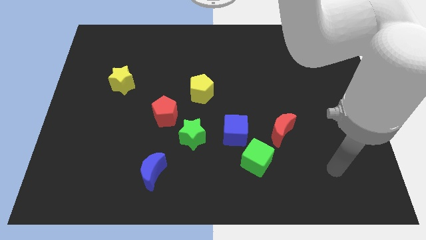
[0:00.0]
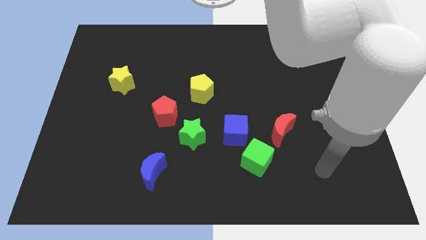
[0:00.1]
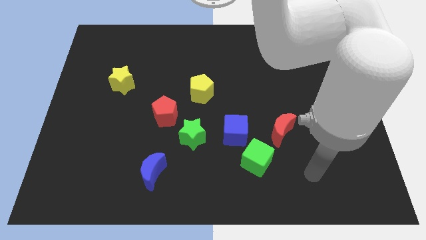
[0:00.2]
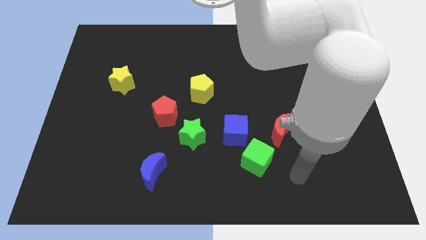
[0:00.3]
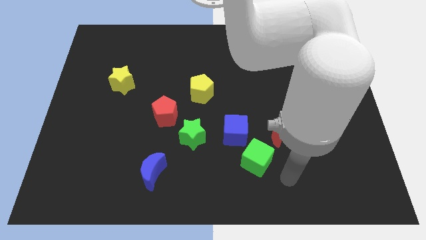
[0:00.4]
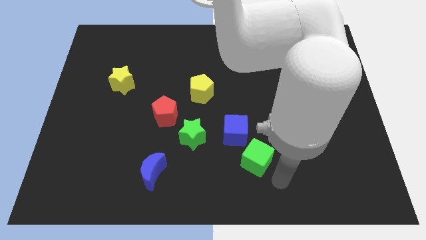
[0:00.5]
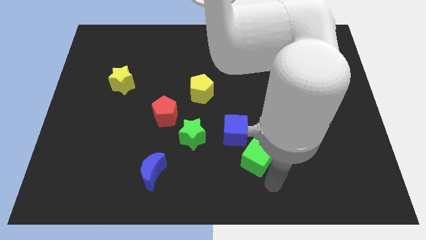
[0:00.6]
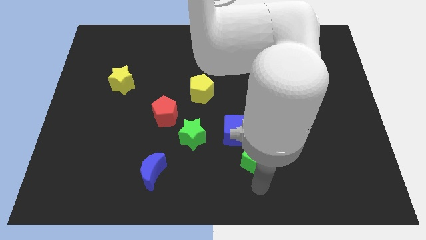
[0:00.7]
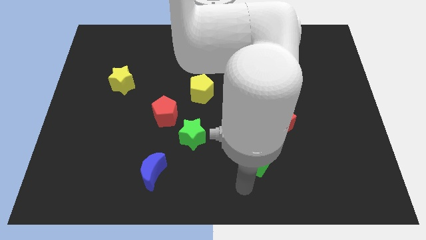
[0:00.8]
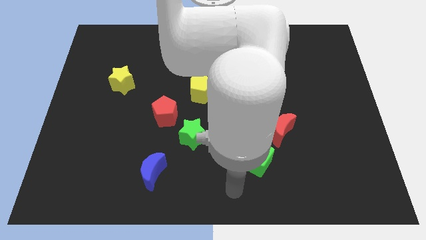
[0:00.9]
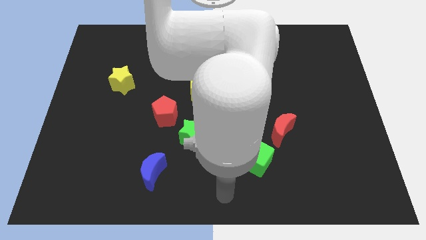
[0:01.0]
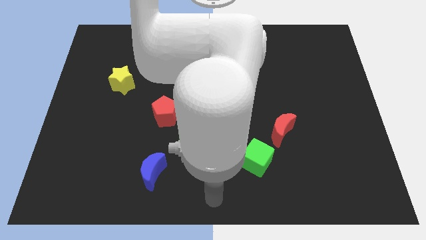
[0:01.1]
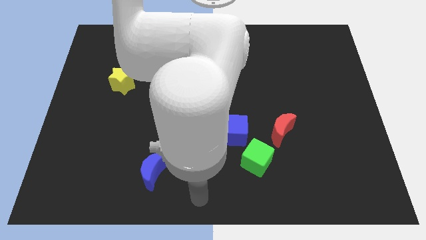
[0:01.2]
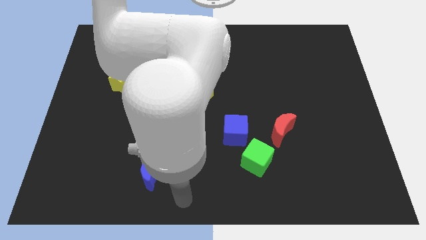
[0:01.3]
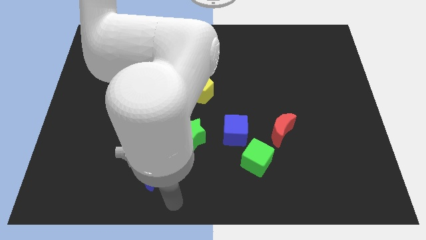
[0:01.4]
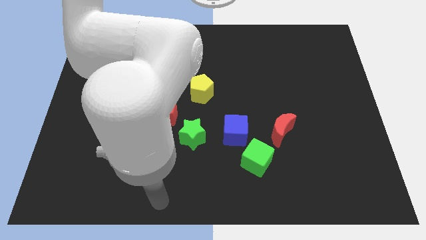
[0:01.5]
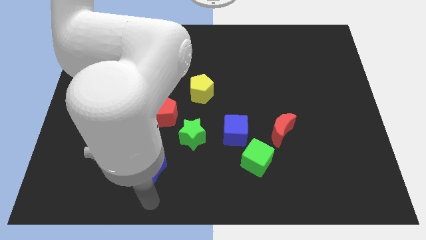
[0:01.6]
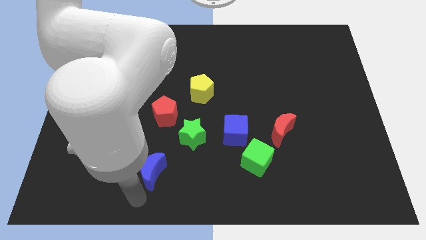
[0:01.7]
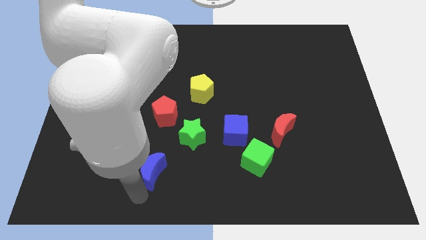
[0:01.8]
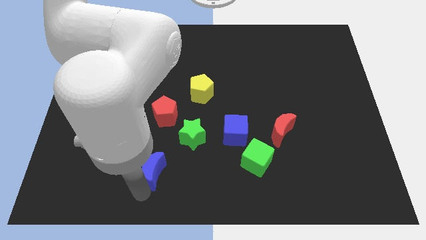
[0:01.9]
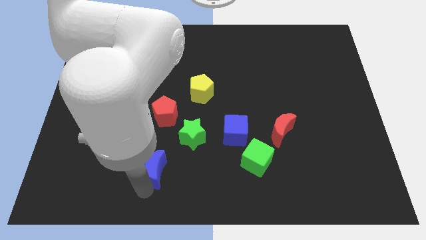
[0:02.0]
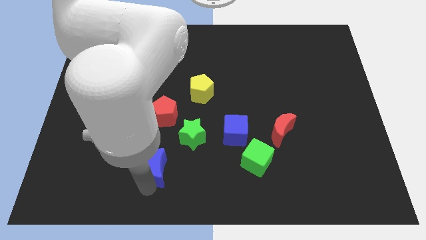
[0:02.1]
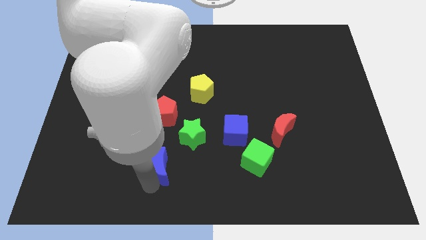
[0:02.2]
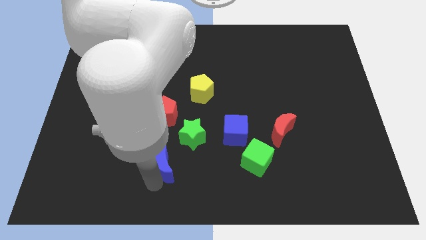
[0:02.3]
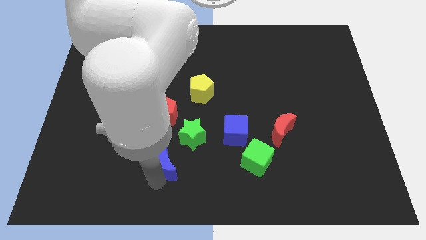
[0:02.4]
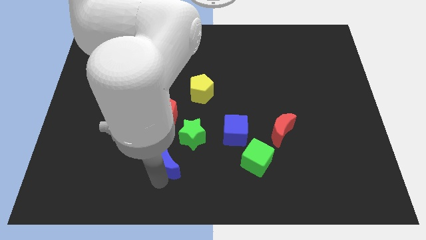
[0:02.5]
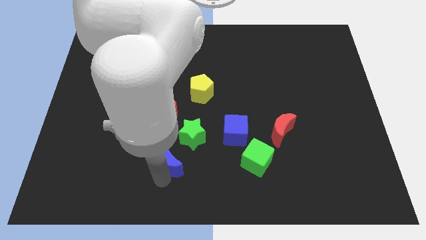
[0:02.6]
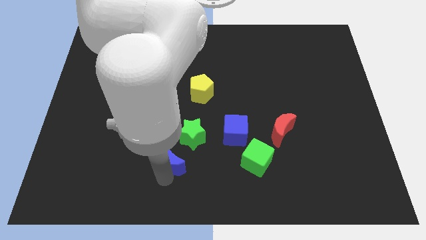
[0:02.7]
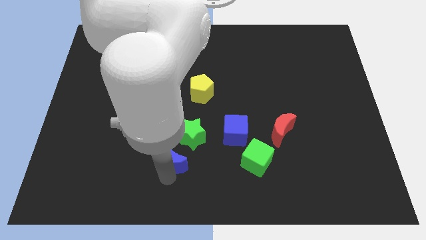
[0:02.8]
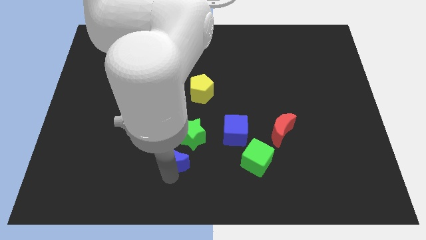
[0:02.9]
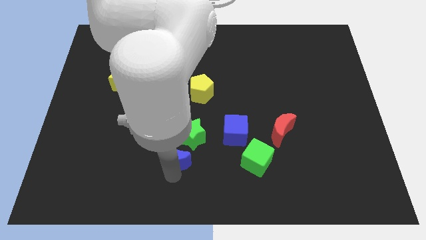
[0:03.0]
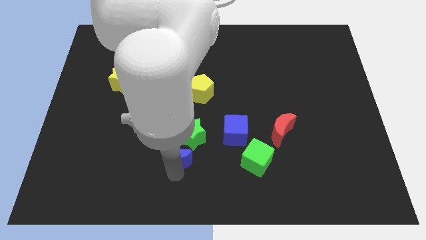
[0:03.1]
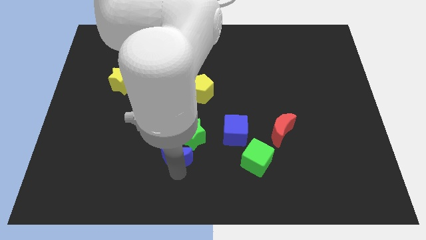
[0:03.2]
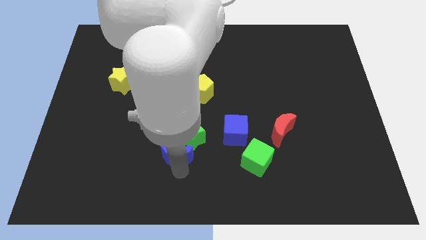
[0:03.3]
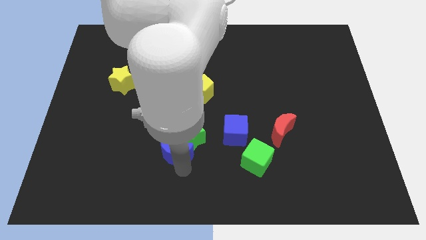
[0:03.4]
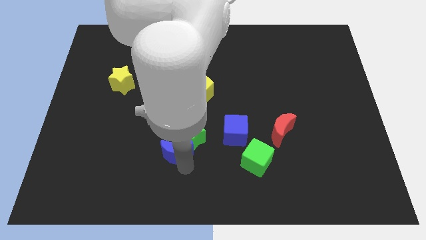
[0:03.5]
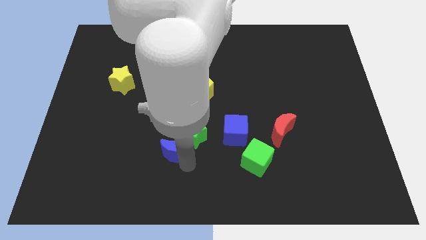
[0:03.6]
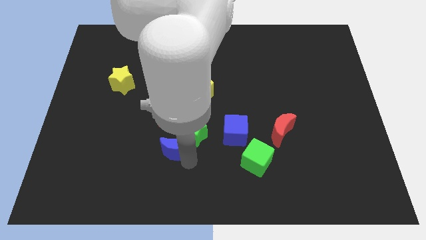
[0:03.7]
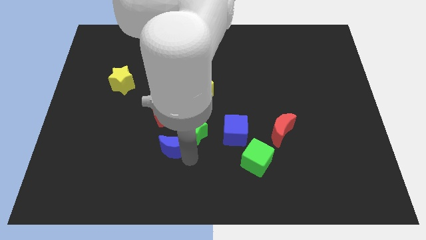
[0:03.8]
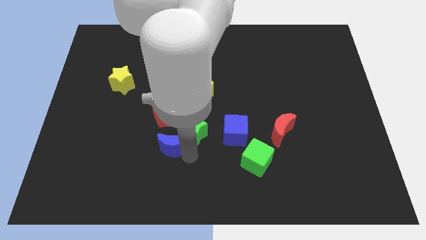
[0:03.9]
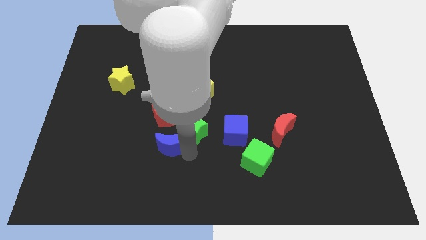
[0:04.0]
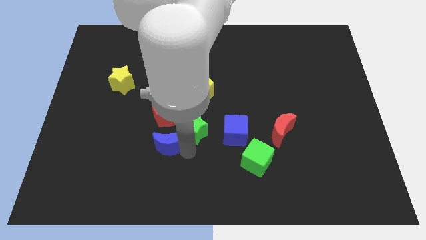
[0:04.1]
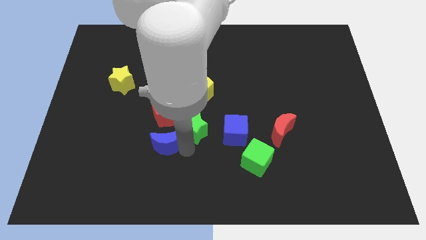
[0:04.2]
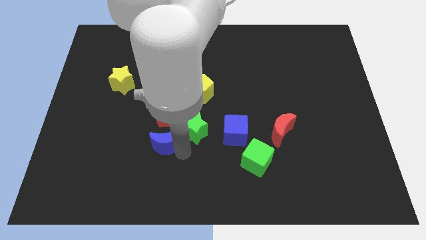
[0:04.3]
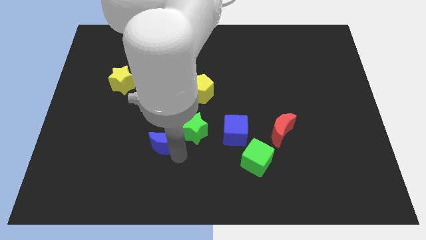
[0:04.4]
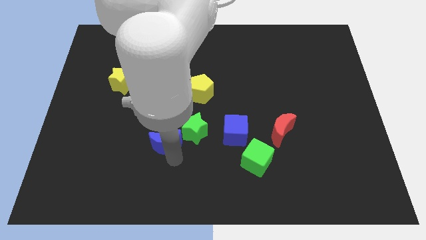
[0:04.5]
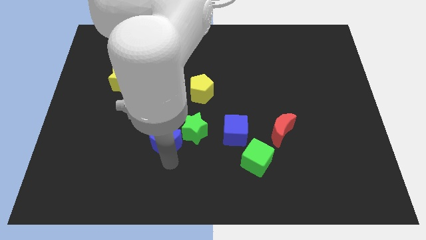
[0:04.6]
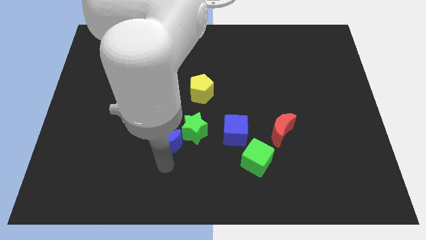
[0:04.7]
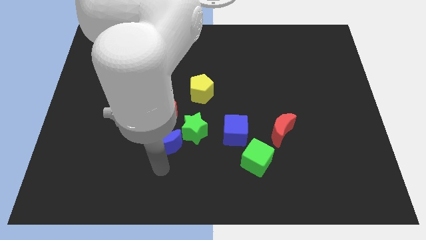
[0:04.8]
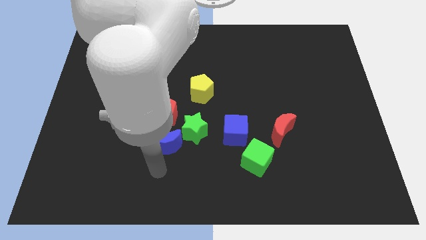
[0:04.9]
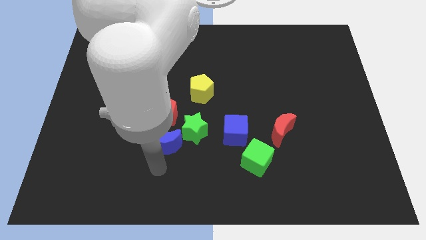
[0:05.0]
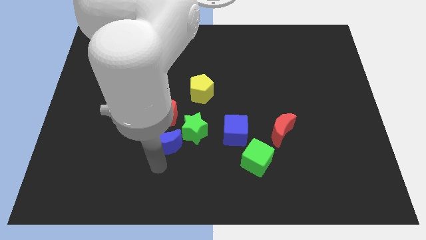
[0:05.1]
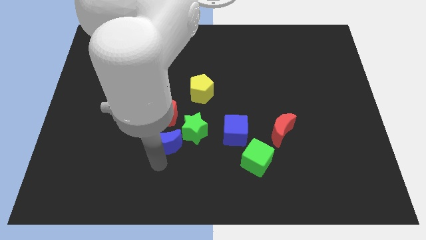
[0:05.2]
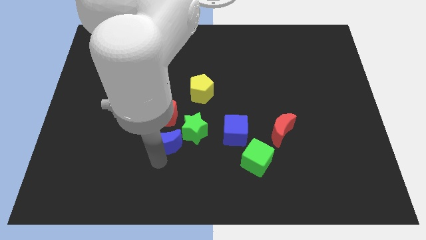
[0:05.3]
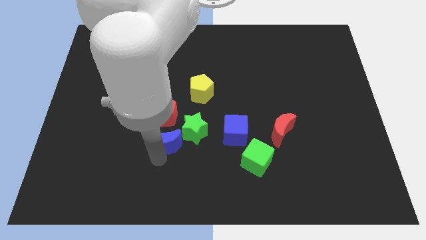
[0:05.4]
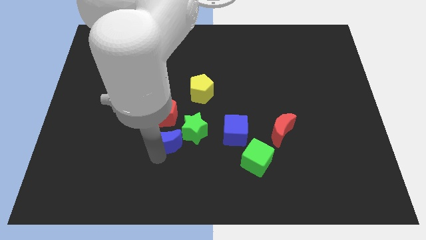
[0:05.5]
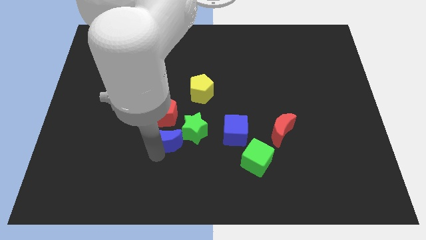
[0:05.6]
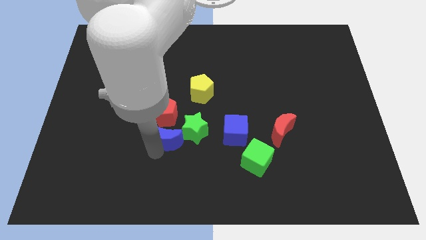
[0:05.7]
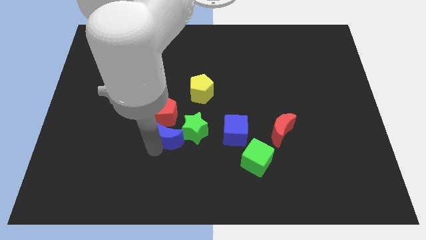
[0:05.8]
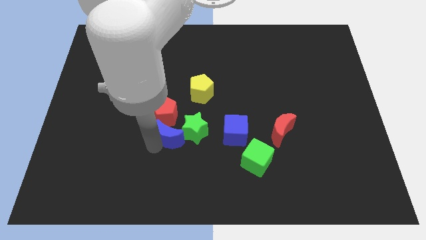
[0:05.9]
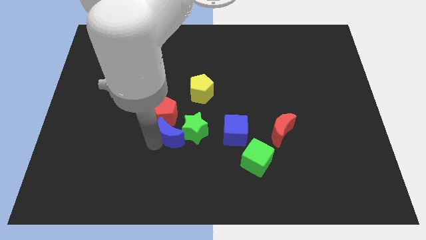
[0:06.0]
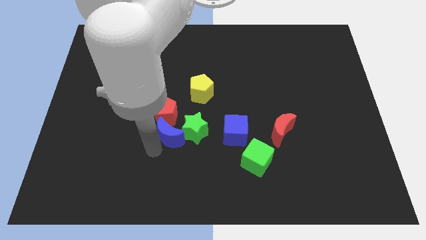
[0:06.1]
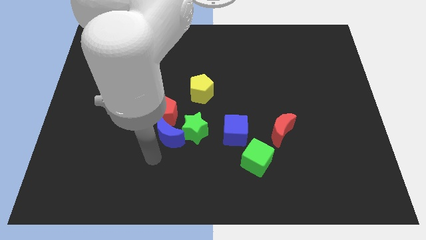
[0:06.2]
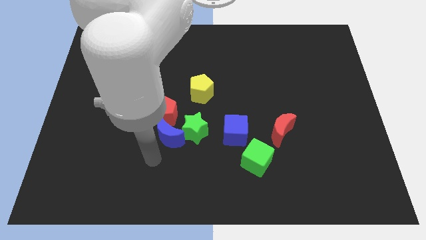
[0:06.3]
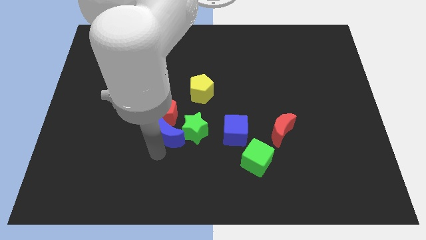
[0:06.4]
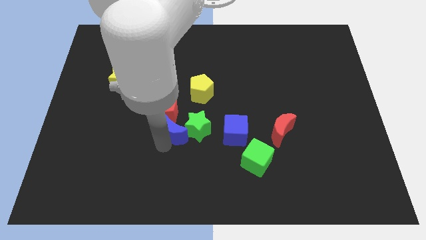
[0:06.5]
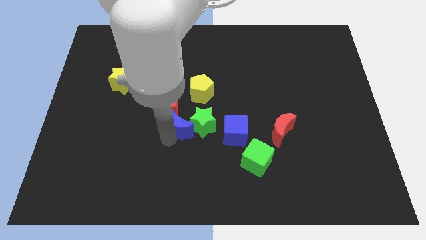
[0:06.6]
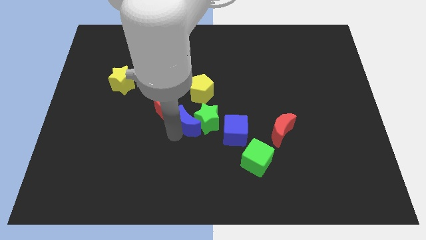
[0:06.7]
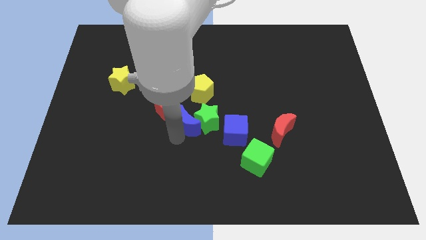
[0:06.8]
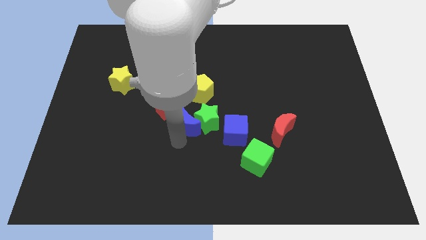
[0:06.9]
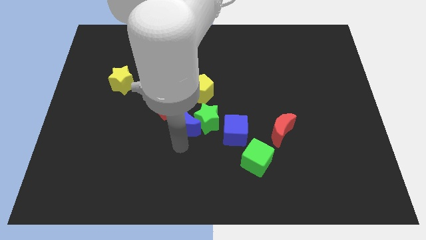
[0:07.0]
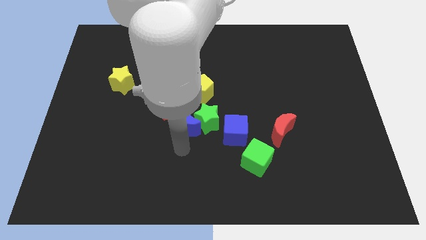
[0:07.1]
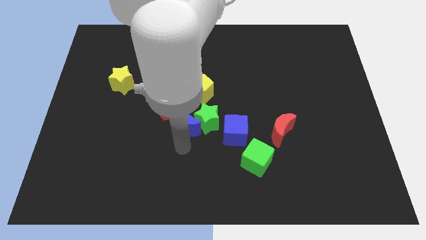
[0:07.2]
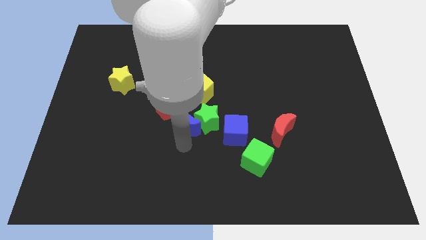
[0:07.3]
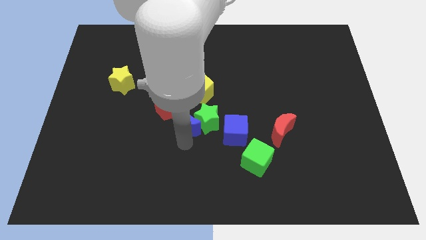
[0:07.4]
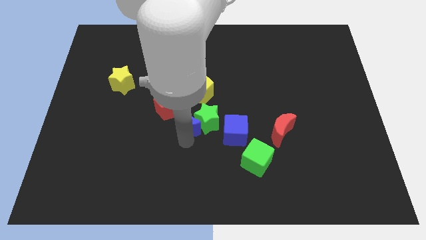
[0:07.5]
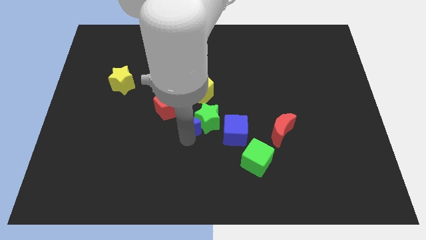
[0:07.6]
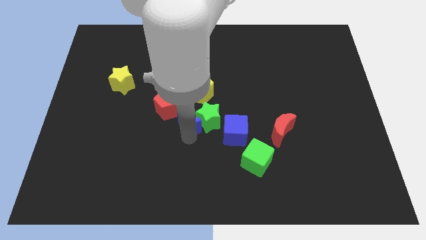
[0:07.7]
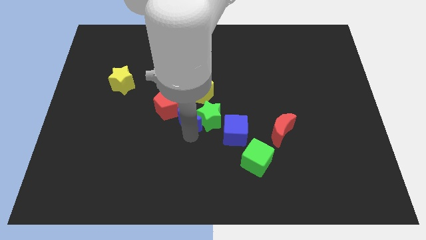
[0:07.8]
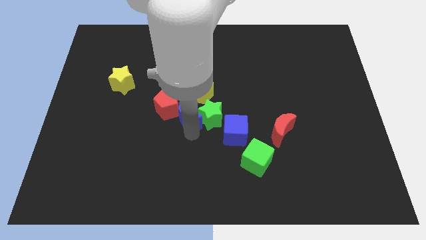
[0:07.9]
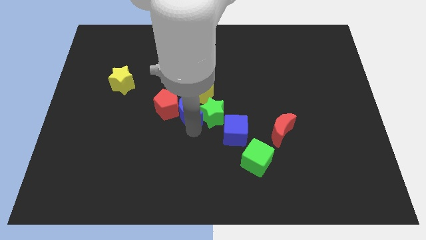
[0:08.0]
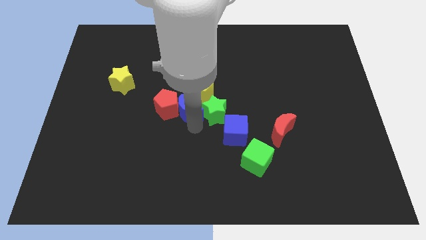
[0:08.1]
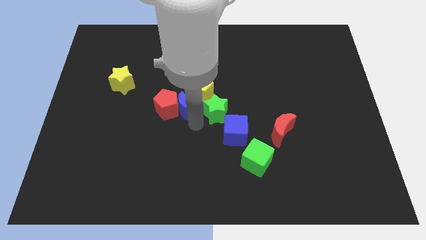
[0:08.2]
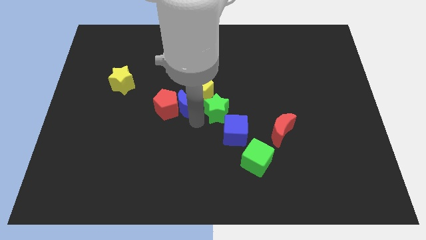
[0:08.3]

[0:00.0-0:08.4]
slide the blue moon next to the yellow pentagon

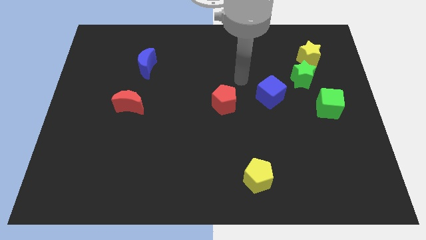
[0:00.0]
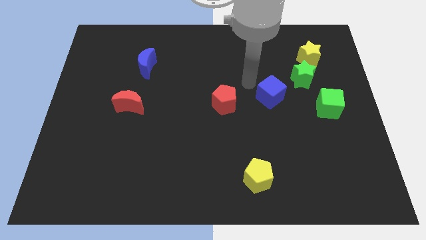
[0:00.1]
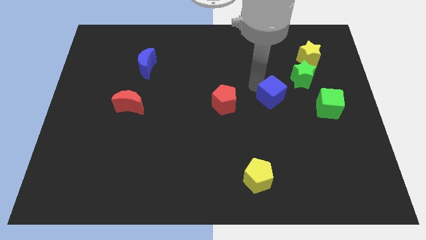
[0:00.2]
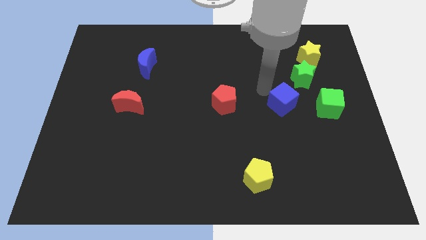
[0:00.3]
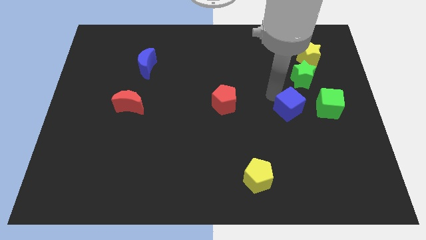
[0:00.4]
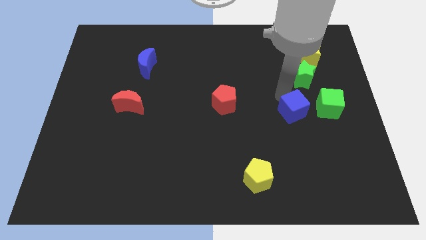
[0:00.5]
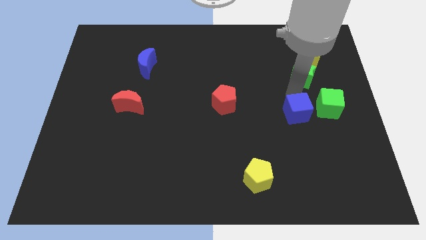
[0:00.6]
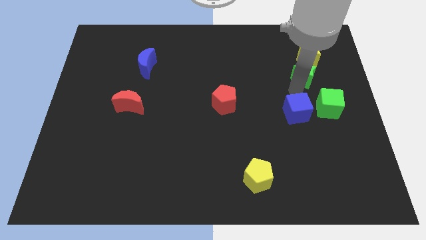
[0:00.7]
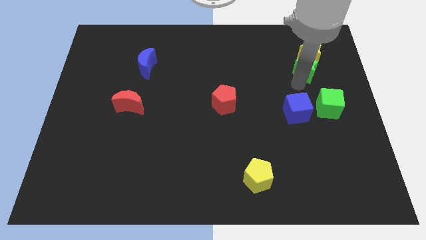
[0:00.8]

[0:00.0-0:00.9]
move the green star to the yellow star
